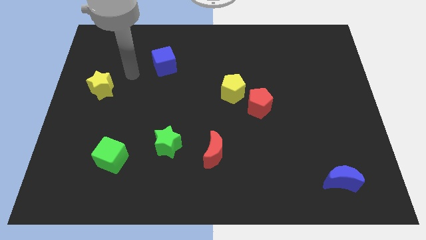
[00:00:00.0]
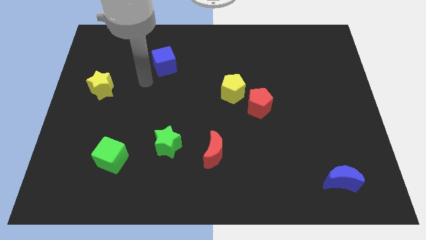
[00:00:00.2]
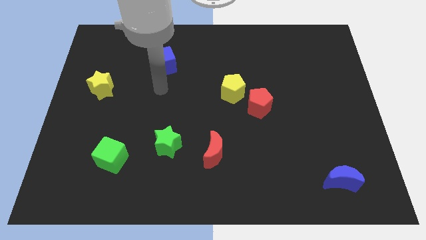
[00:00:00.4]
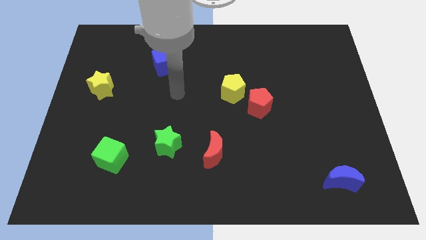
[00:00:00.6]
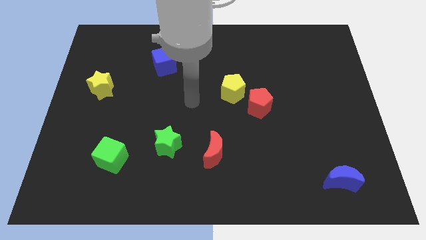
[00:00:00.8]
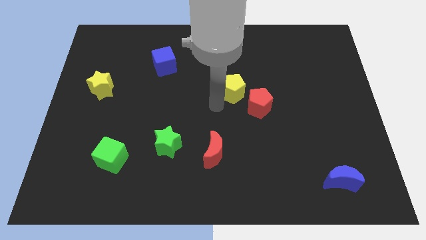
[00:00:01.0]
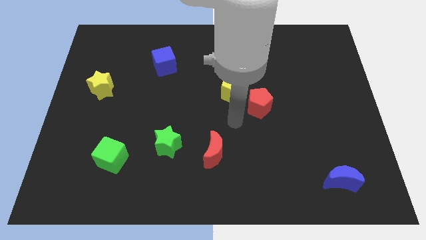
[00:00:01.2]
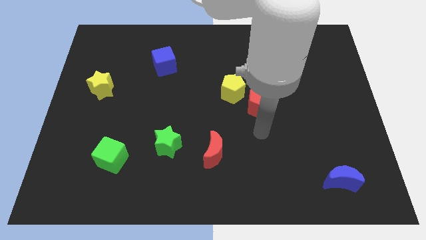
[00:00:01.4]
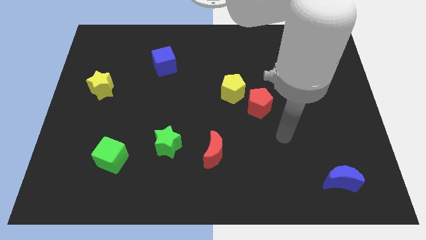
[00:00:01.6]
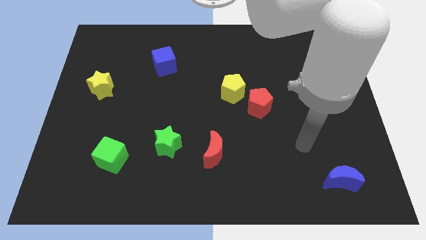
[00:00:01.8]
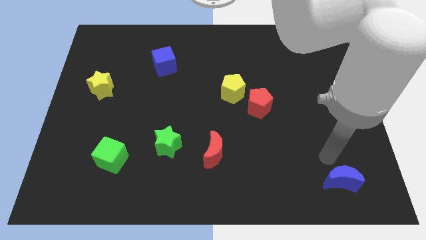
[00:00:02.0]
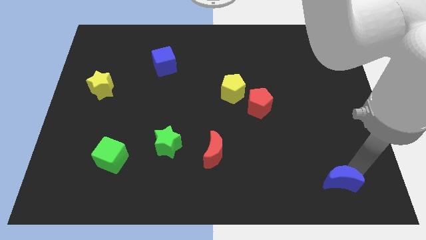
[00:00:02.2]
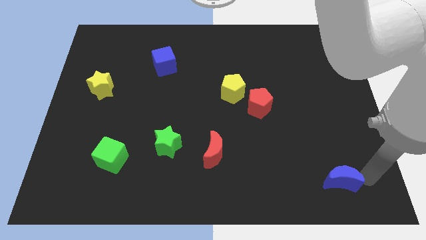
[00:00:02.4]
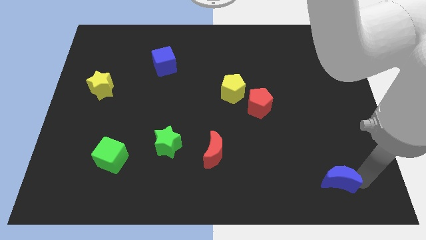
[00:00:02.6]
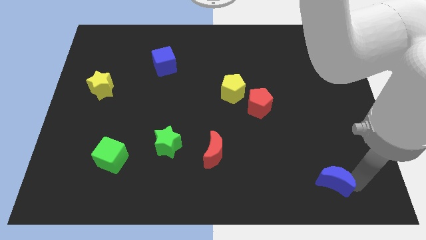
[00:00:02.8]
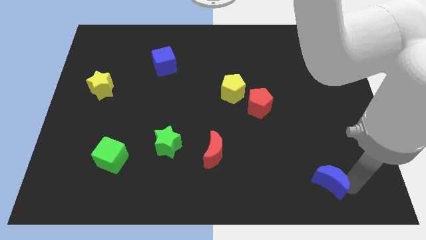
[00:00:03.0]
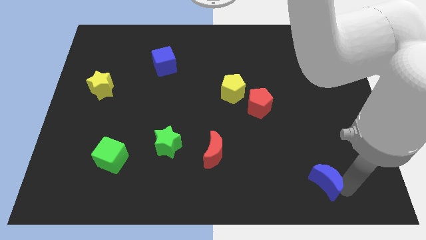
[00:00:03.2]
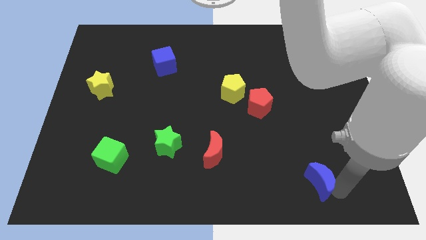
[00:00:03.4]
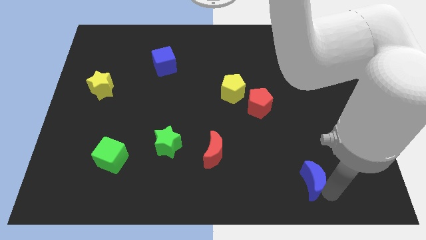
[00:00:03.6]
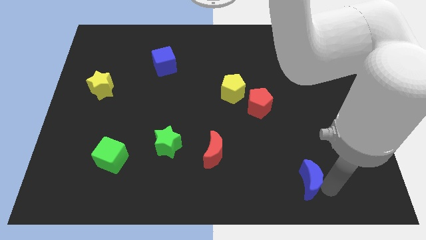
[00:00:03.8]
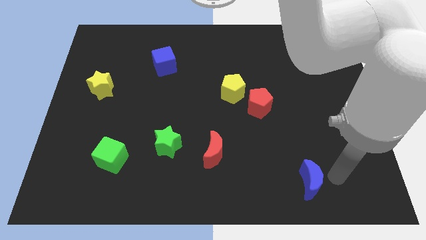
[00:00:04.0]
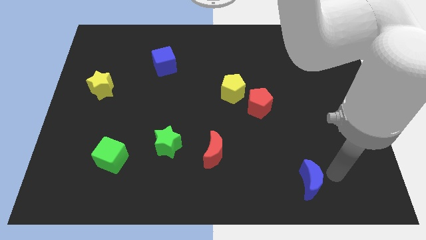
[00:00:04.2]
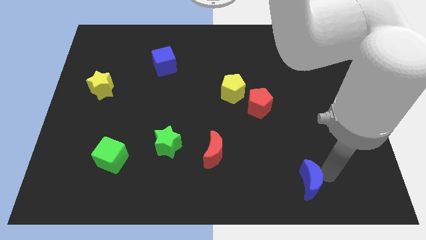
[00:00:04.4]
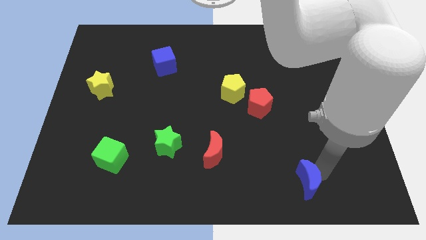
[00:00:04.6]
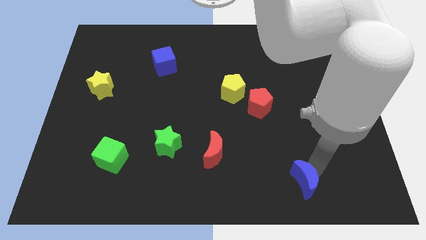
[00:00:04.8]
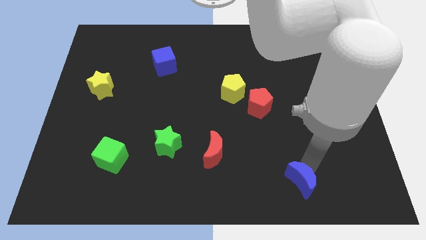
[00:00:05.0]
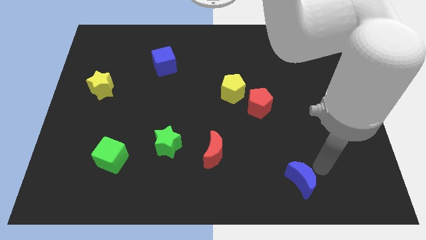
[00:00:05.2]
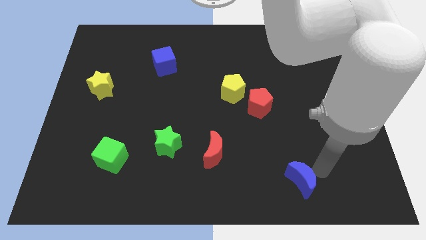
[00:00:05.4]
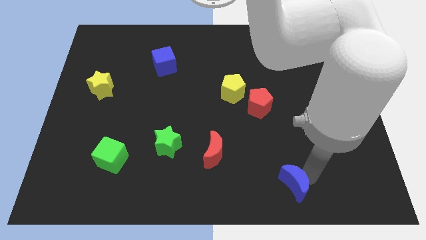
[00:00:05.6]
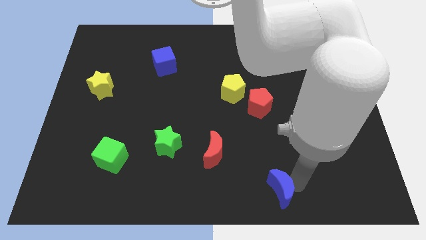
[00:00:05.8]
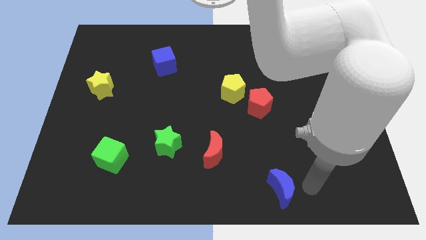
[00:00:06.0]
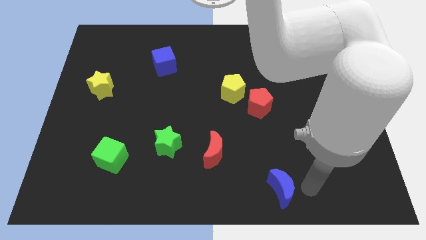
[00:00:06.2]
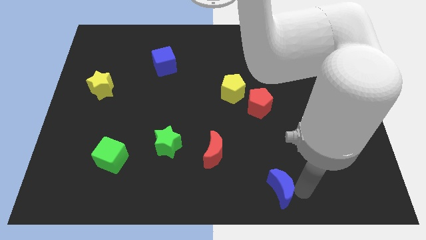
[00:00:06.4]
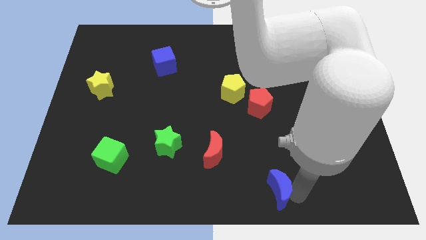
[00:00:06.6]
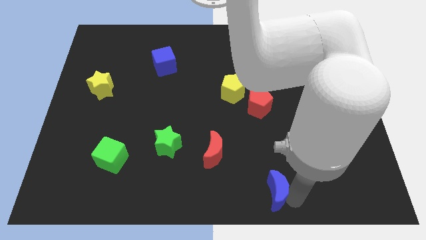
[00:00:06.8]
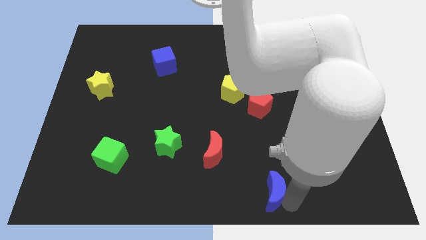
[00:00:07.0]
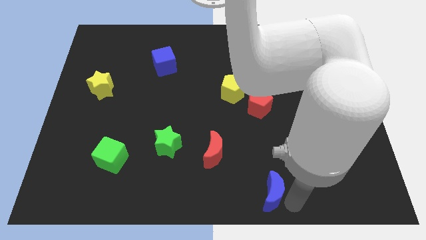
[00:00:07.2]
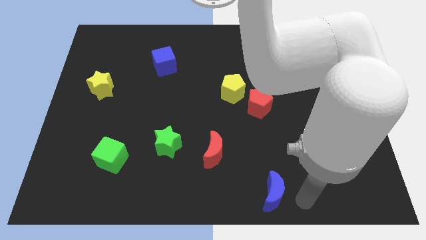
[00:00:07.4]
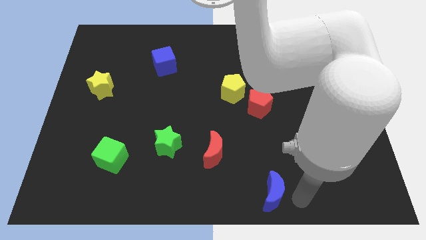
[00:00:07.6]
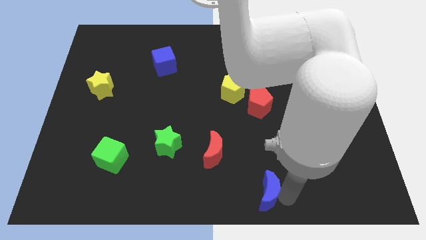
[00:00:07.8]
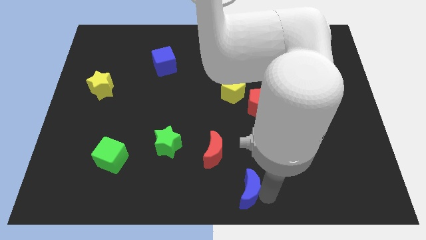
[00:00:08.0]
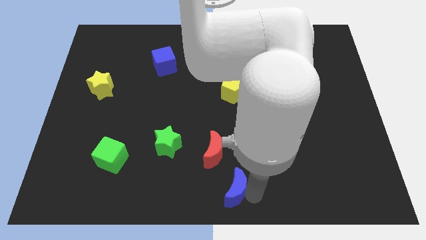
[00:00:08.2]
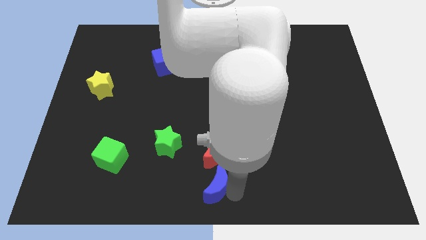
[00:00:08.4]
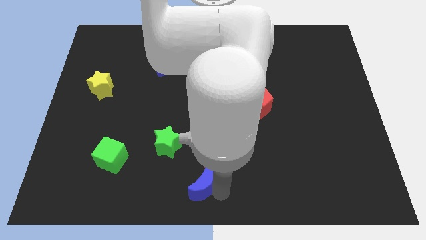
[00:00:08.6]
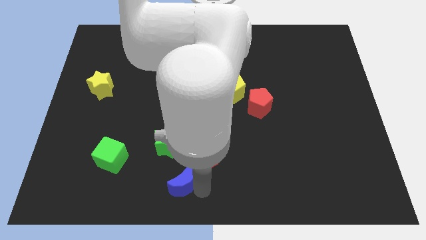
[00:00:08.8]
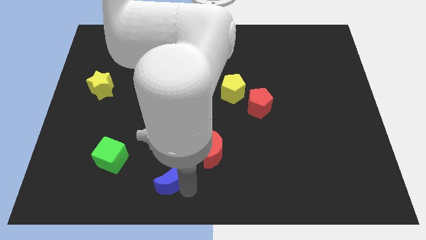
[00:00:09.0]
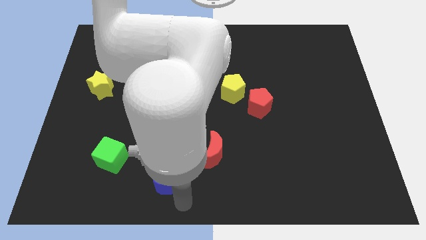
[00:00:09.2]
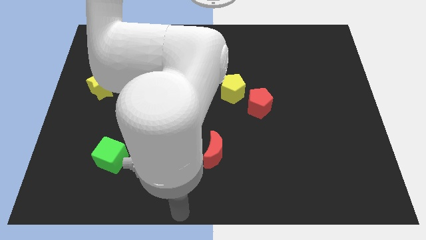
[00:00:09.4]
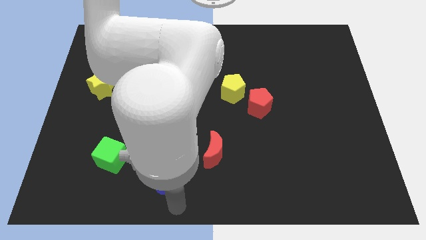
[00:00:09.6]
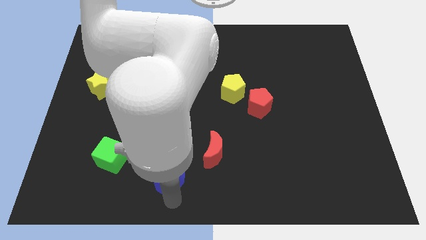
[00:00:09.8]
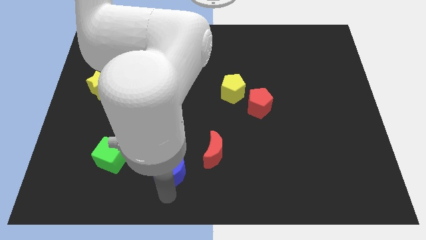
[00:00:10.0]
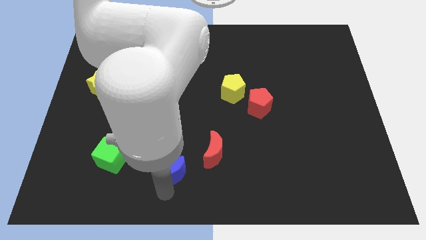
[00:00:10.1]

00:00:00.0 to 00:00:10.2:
put the blue moon to the left side of the red moon

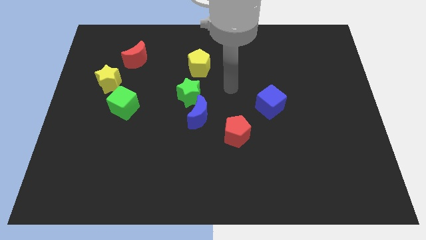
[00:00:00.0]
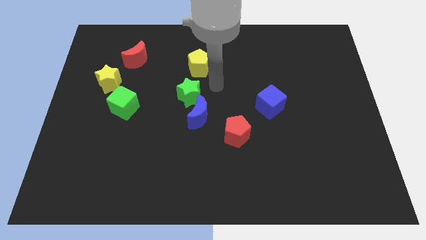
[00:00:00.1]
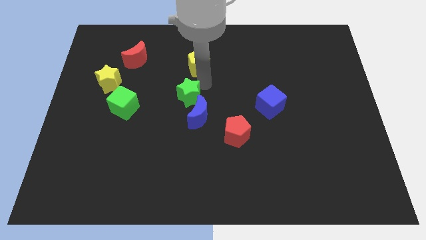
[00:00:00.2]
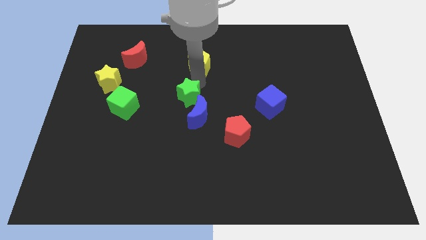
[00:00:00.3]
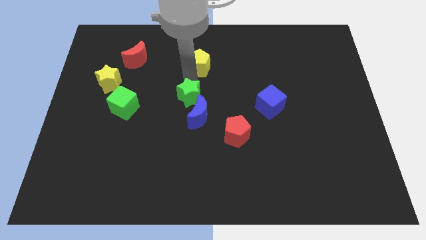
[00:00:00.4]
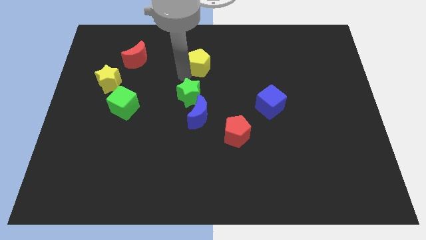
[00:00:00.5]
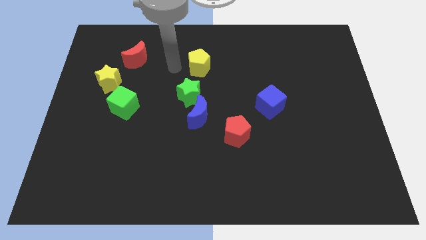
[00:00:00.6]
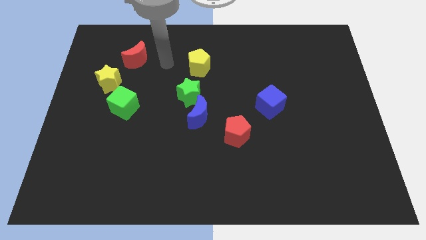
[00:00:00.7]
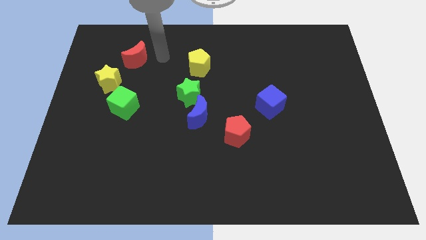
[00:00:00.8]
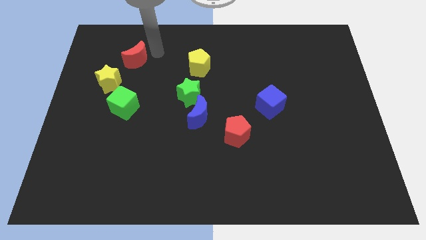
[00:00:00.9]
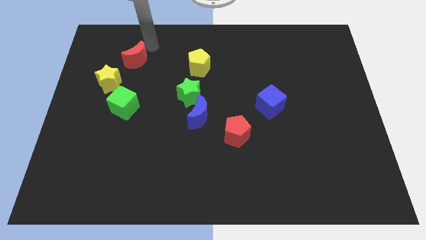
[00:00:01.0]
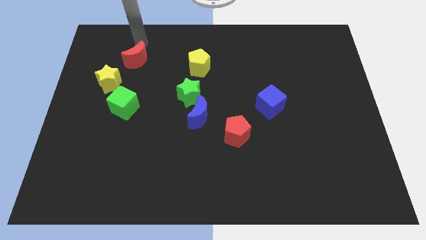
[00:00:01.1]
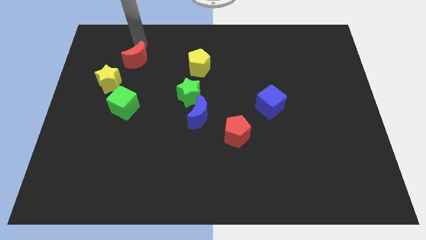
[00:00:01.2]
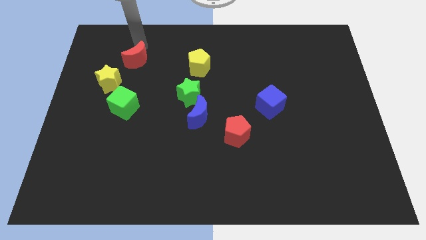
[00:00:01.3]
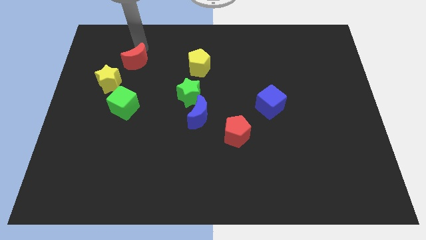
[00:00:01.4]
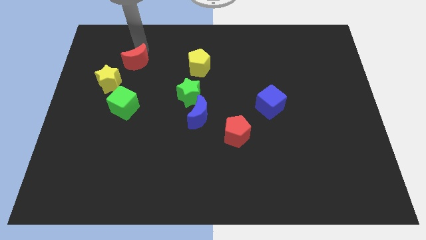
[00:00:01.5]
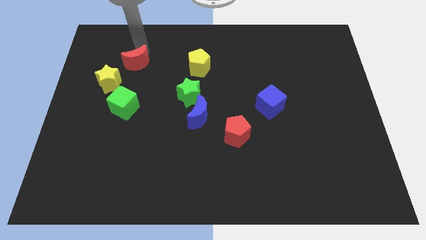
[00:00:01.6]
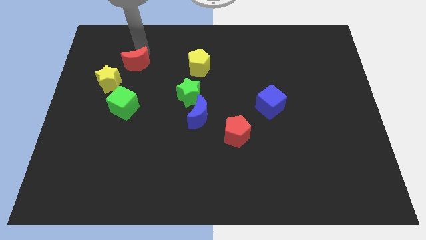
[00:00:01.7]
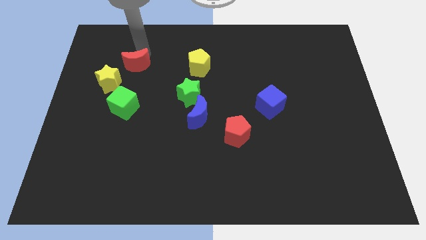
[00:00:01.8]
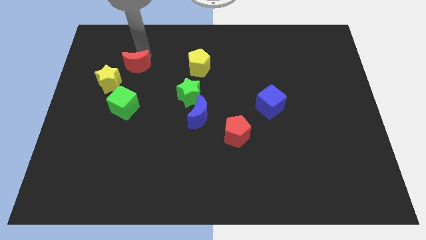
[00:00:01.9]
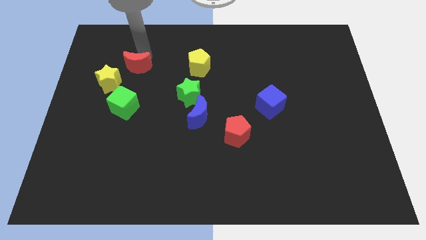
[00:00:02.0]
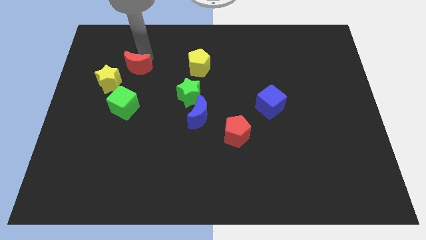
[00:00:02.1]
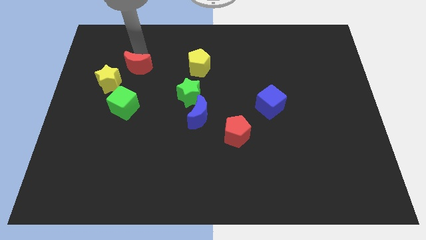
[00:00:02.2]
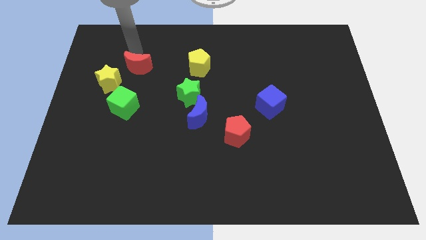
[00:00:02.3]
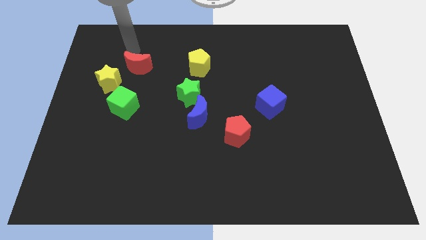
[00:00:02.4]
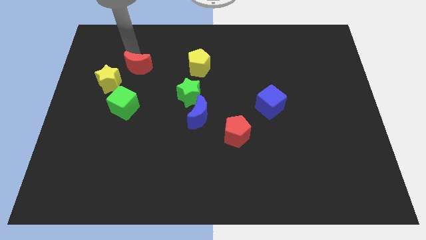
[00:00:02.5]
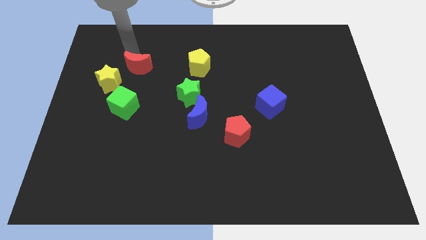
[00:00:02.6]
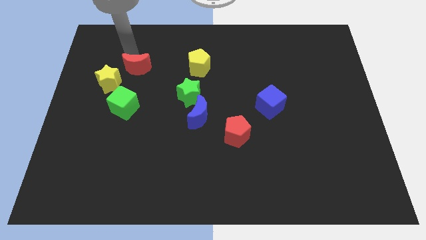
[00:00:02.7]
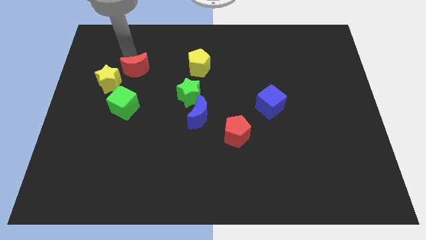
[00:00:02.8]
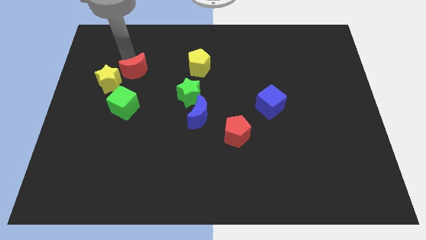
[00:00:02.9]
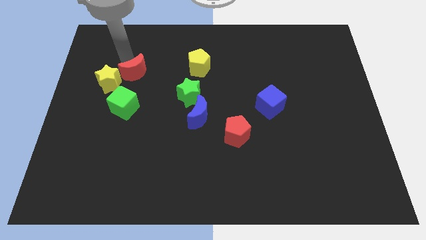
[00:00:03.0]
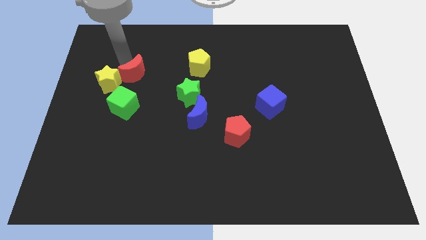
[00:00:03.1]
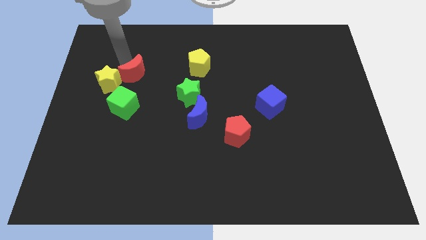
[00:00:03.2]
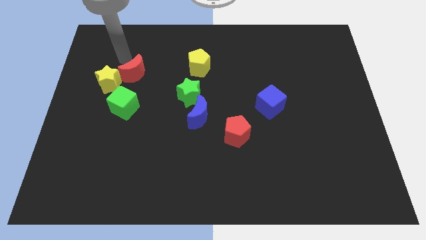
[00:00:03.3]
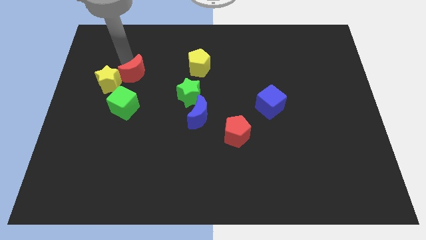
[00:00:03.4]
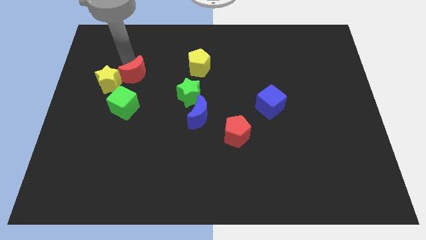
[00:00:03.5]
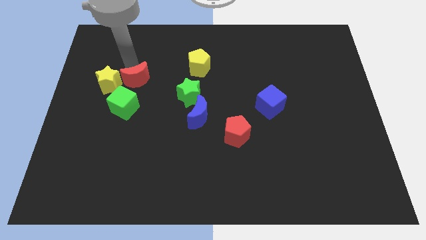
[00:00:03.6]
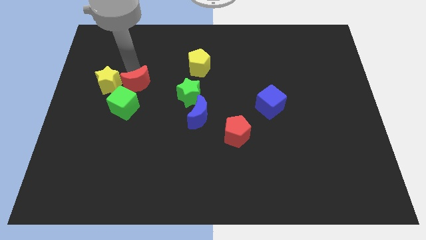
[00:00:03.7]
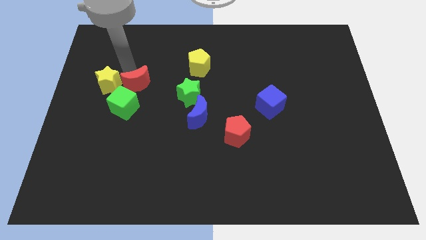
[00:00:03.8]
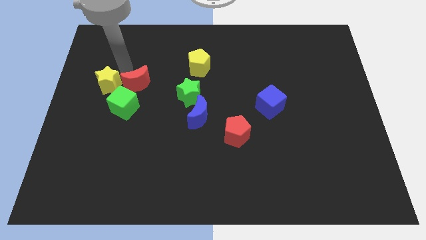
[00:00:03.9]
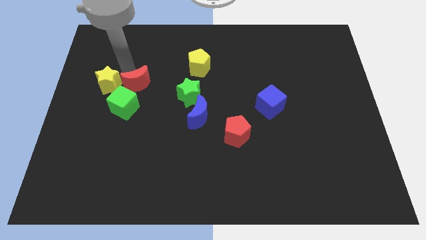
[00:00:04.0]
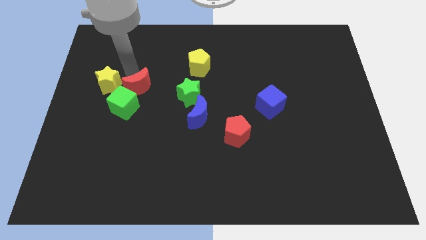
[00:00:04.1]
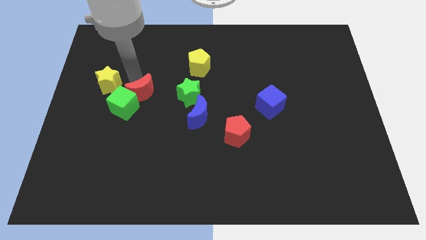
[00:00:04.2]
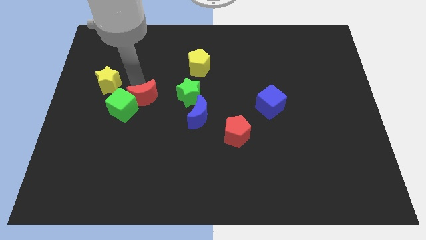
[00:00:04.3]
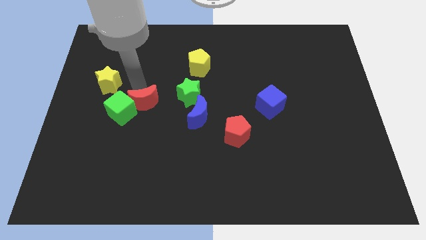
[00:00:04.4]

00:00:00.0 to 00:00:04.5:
slide the red moon just left of the blue moon
